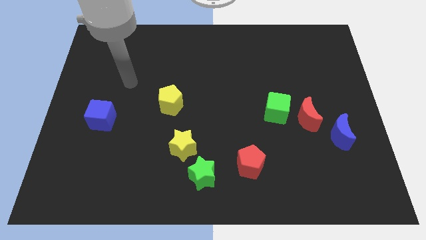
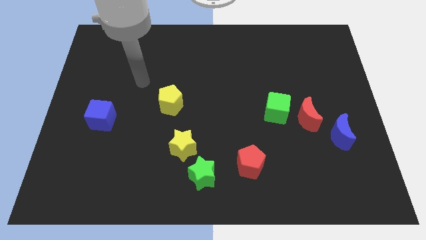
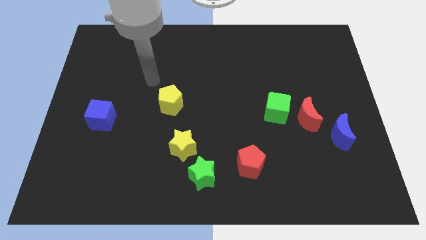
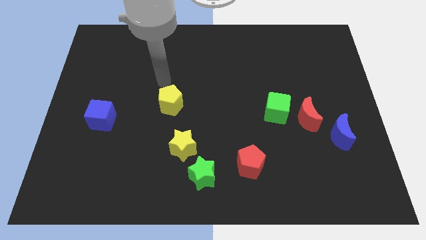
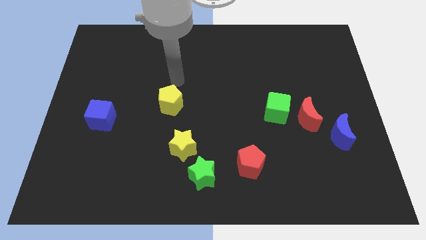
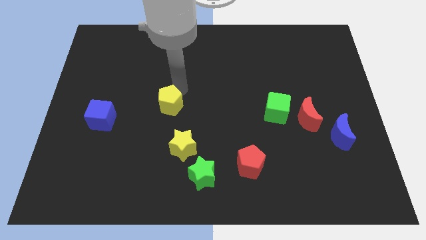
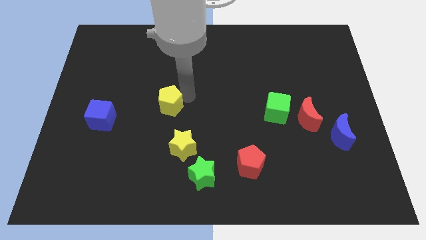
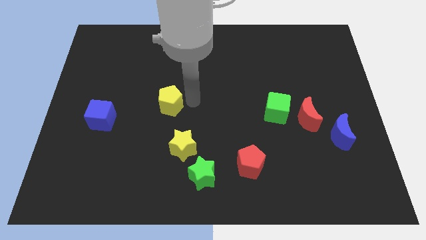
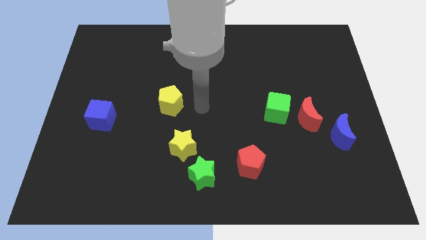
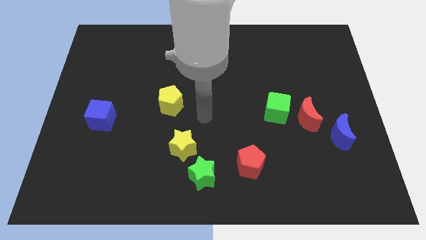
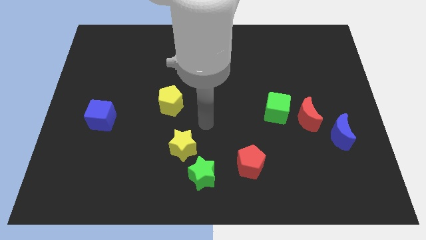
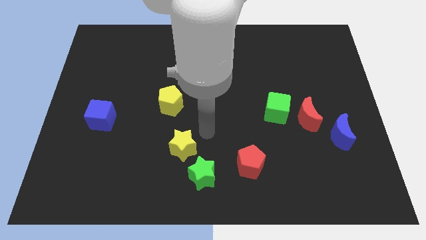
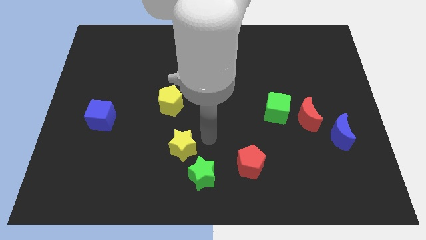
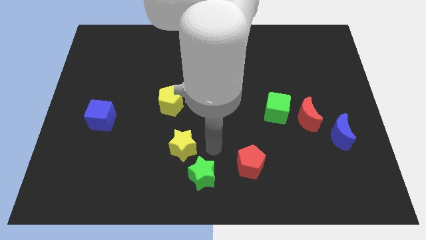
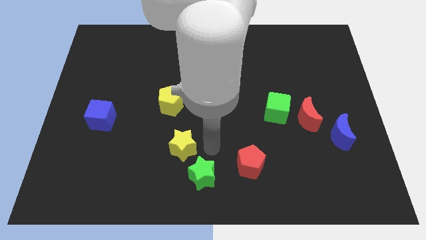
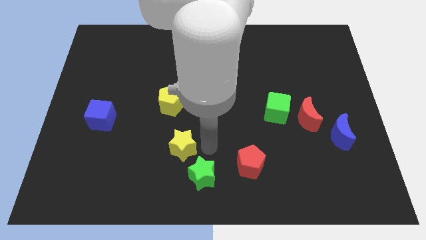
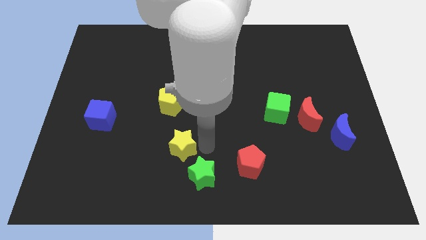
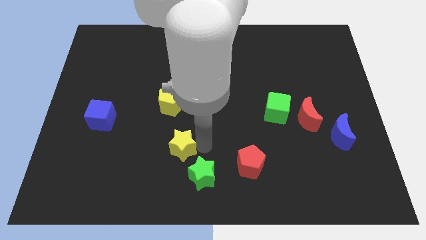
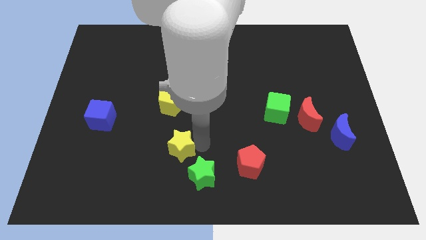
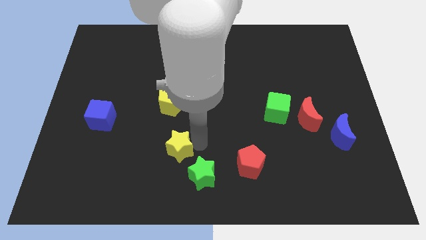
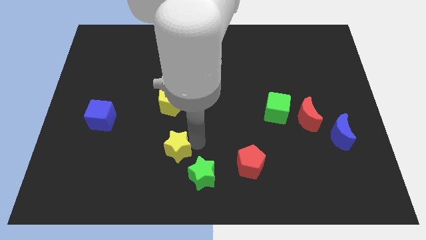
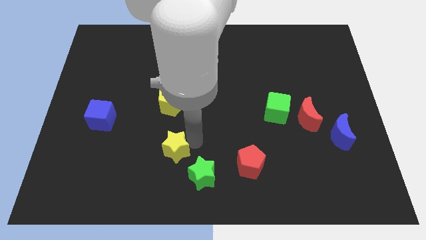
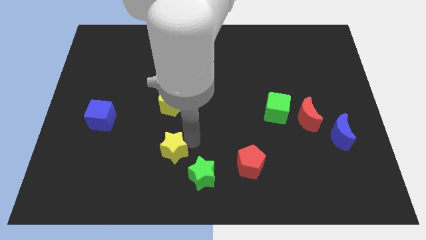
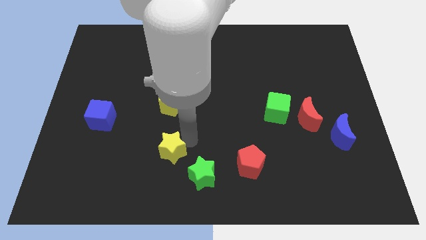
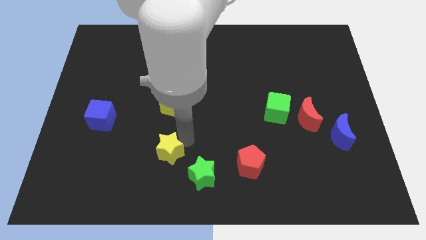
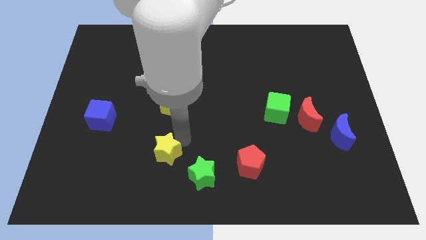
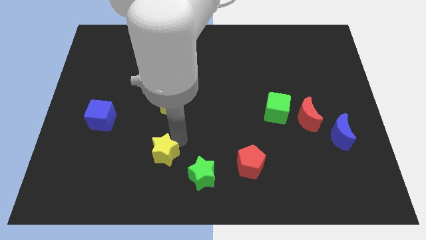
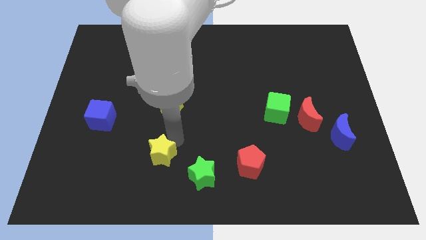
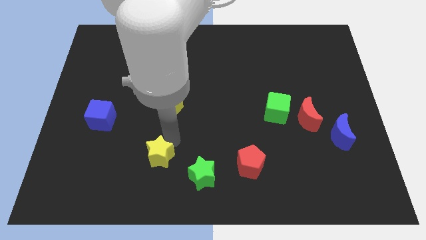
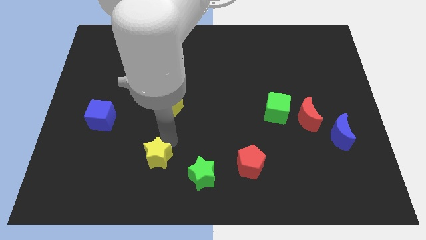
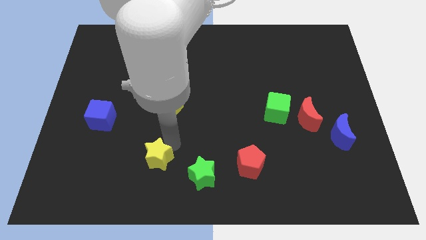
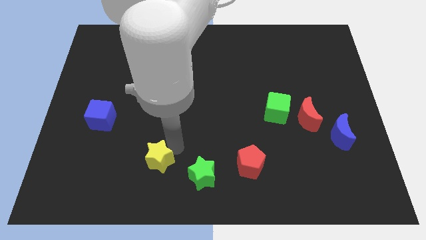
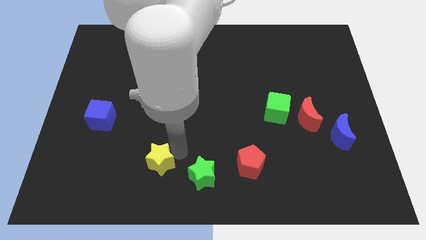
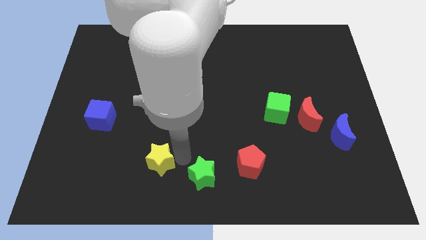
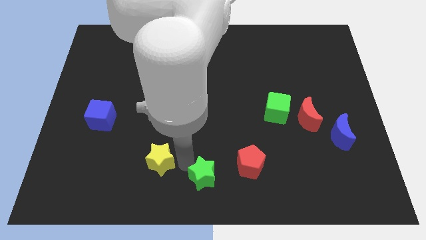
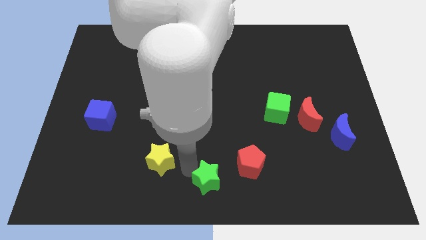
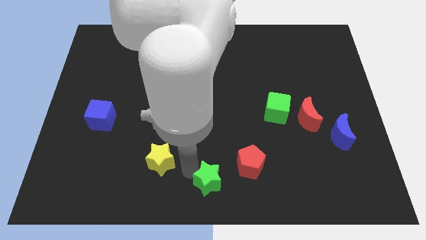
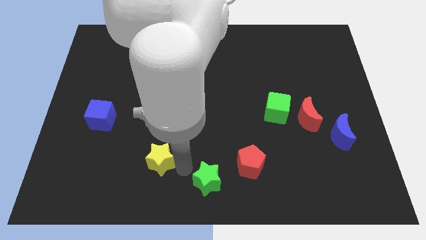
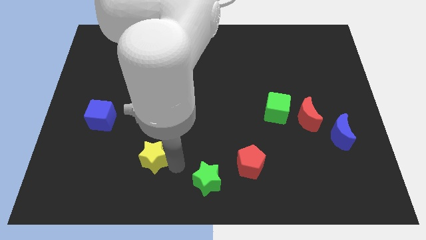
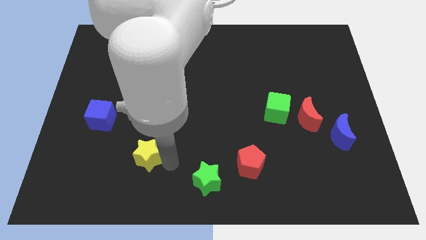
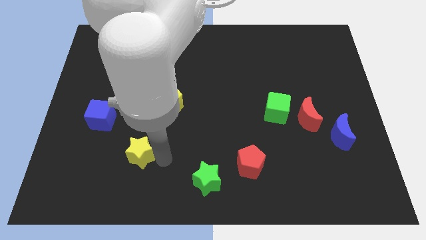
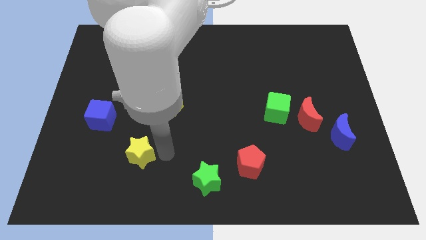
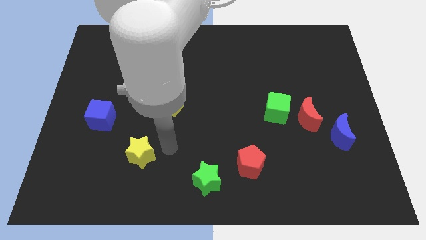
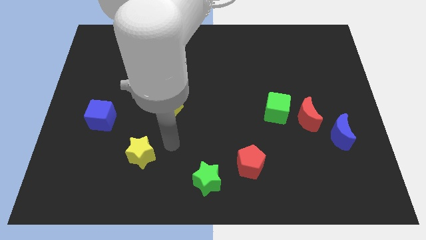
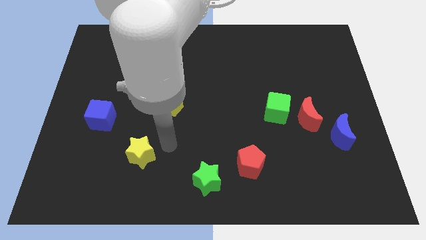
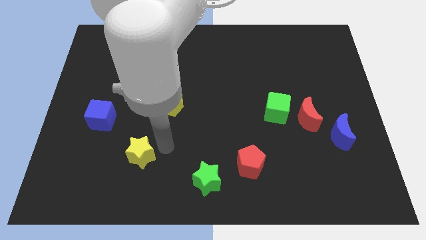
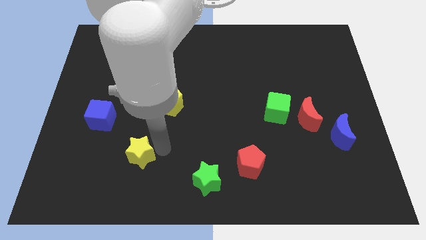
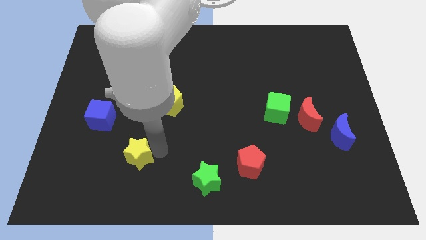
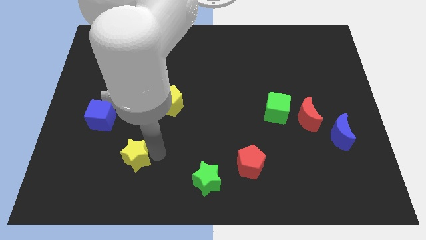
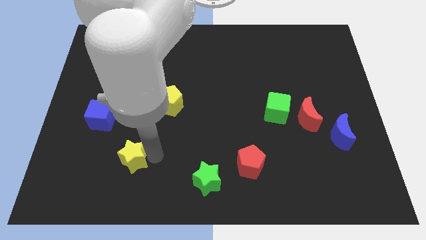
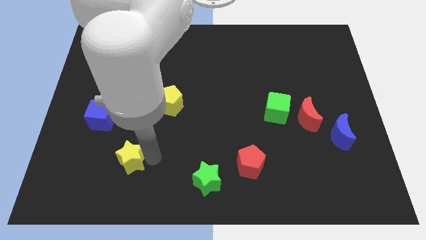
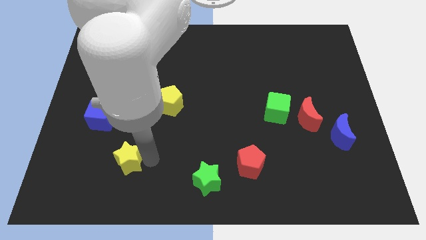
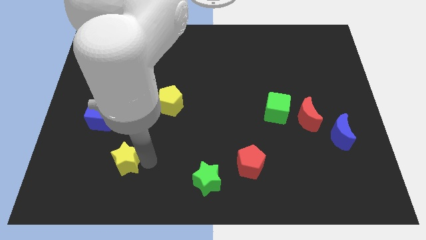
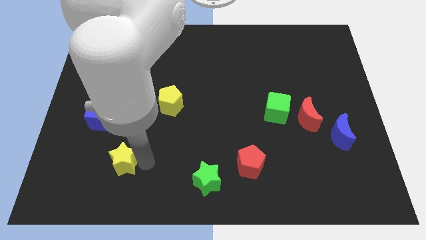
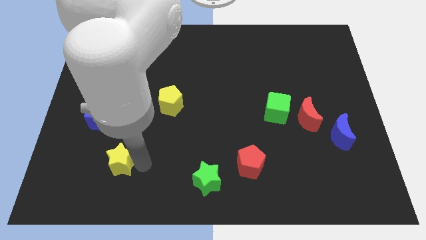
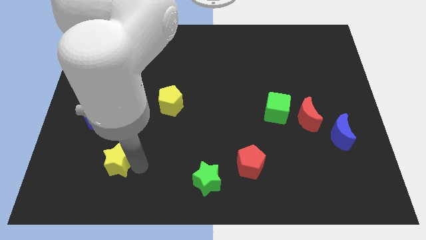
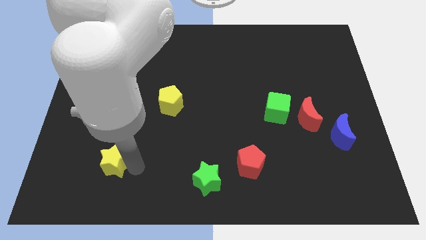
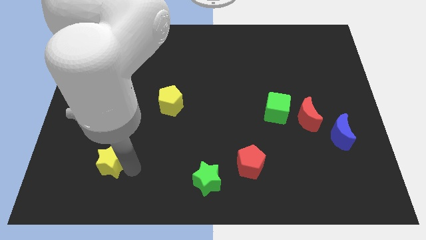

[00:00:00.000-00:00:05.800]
move the yellow star to the bottom side of the blue cube

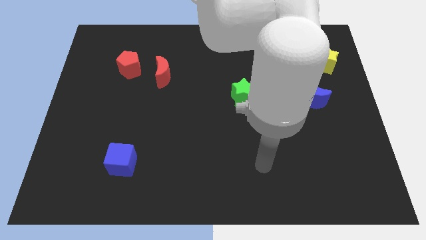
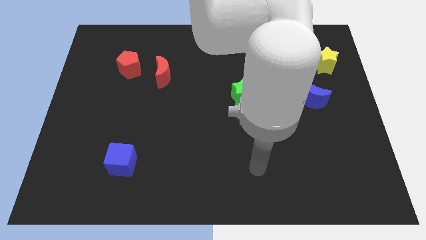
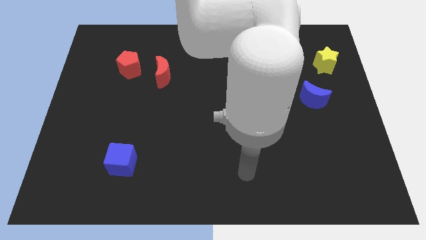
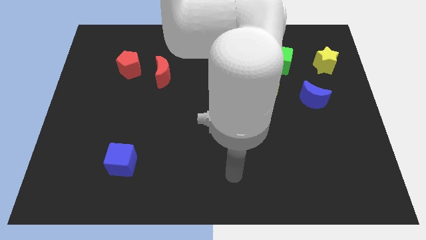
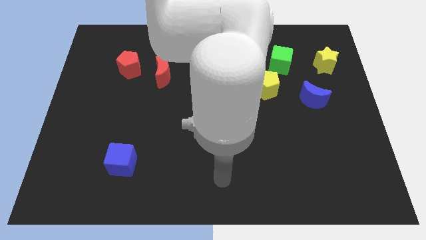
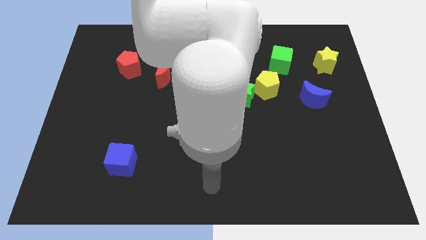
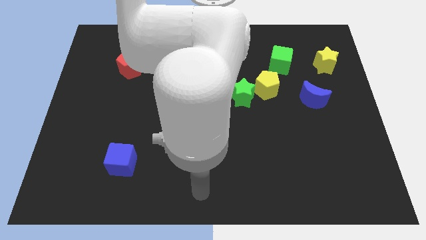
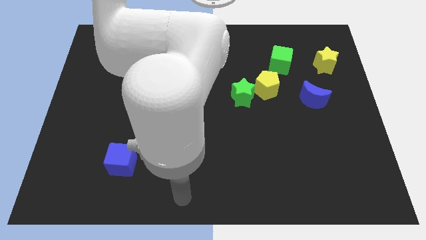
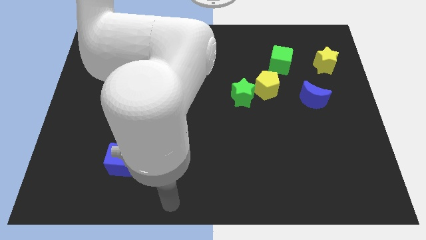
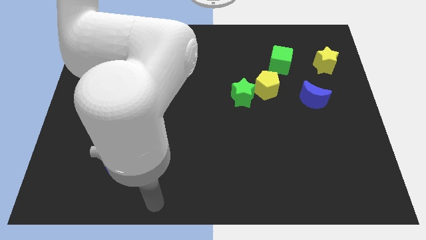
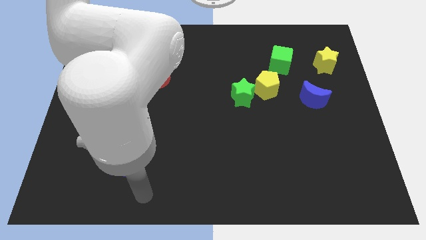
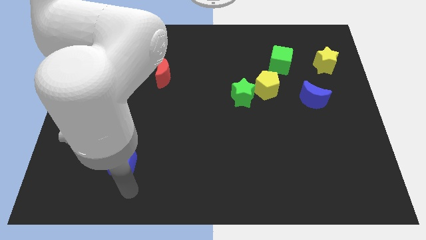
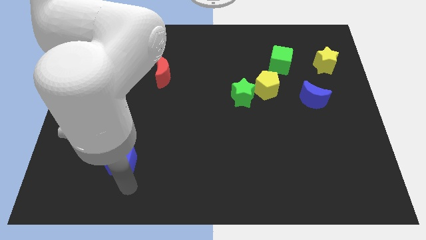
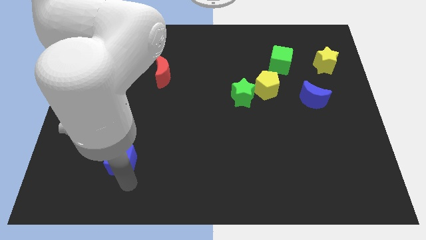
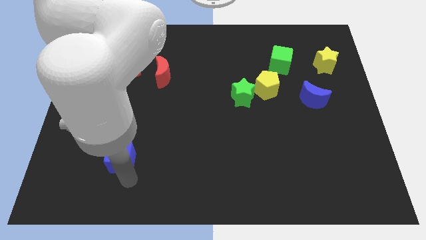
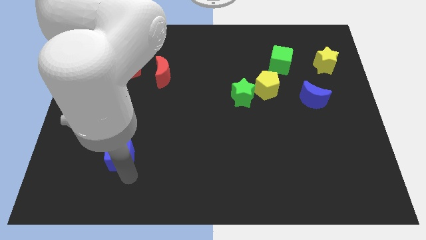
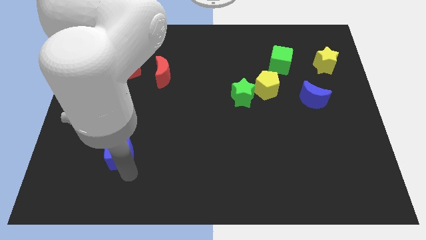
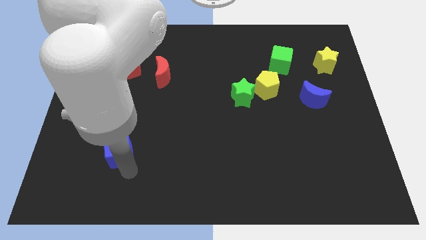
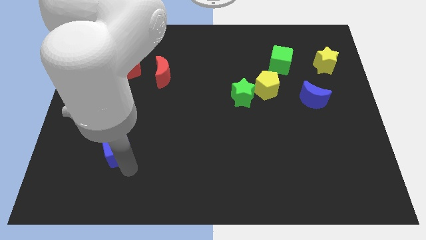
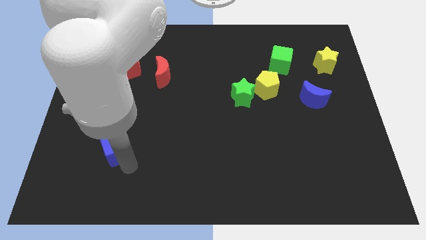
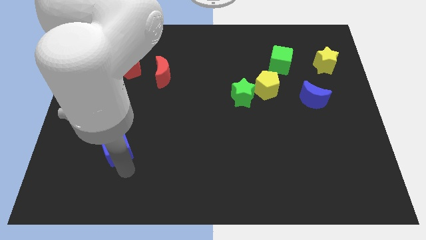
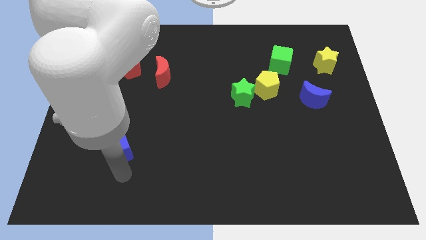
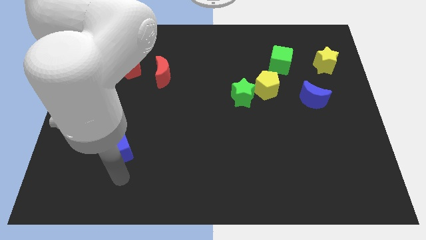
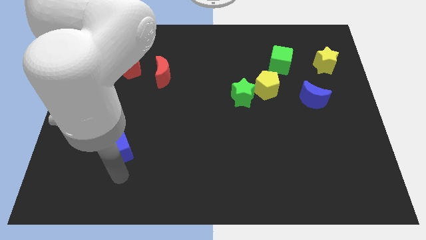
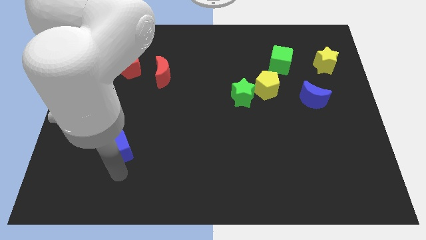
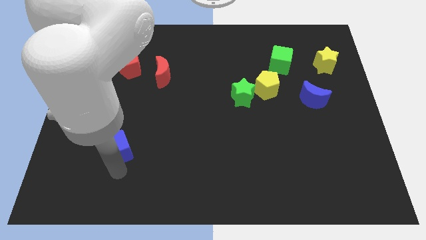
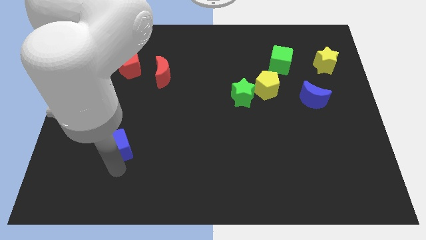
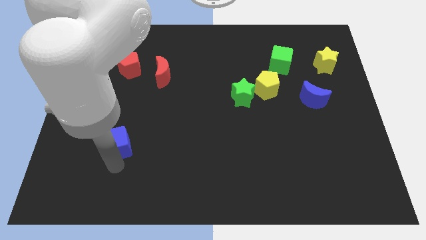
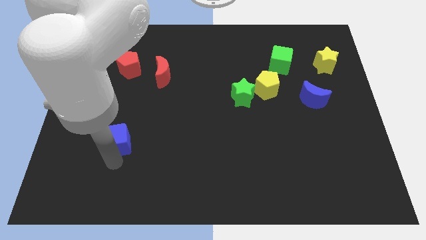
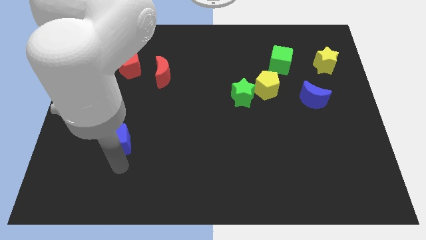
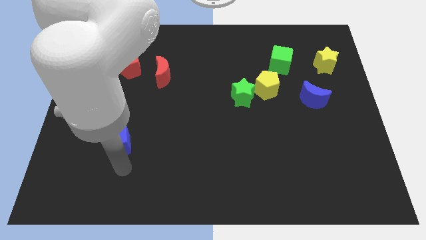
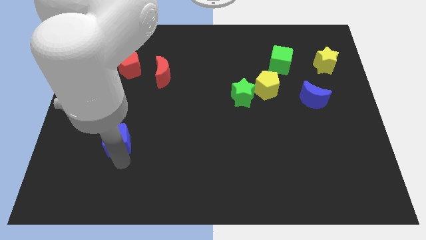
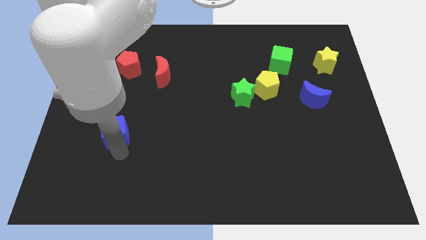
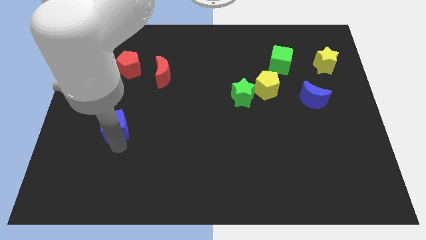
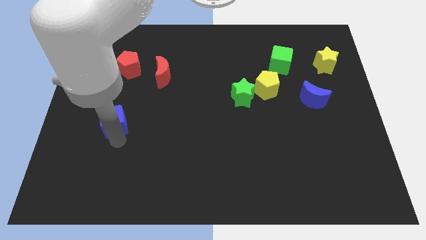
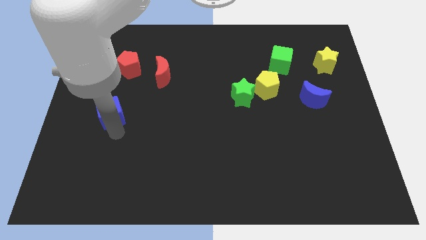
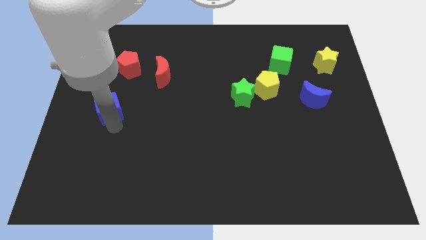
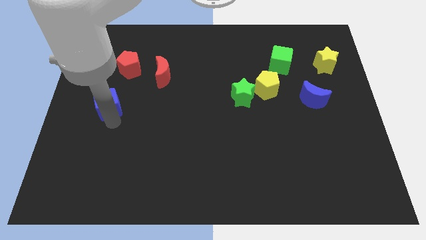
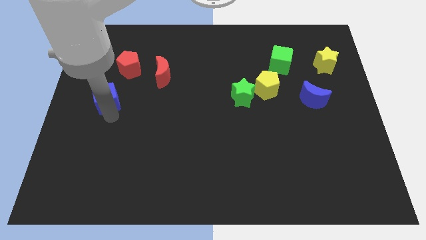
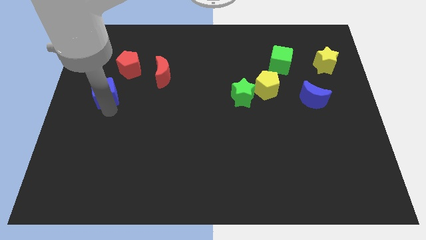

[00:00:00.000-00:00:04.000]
slide the blue cube diagonally down and to the left of the red pentagon
